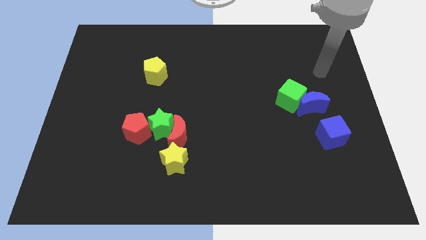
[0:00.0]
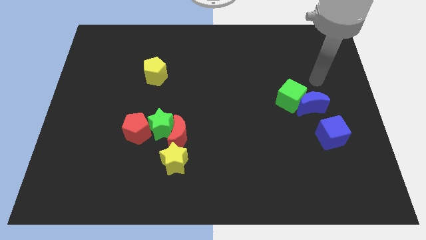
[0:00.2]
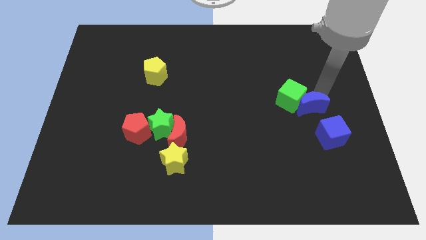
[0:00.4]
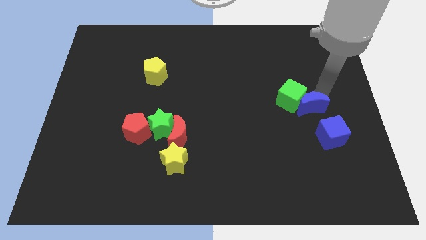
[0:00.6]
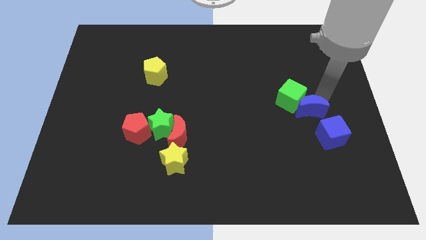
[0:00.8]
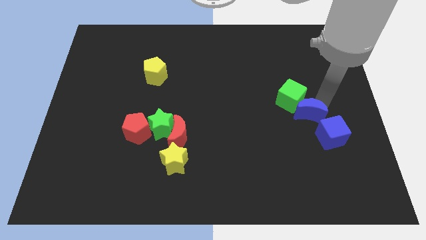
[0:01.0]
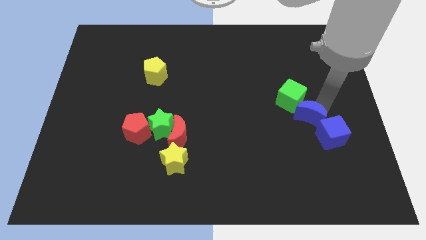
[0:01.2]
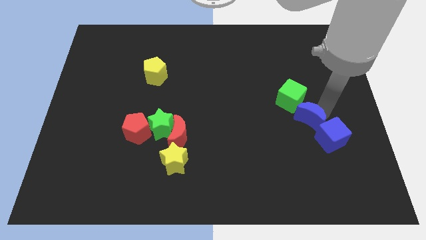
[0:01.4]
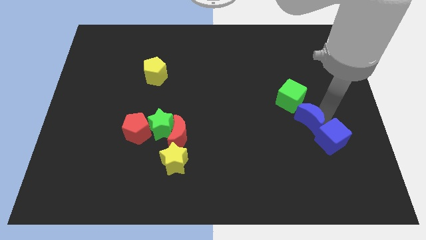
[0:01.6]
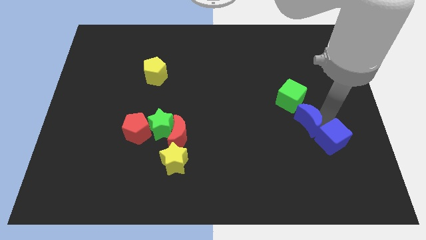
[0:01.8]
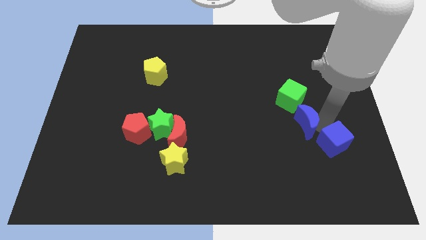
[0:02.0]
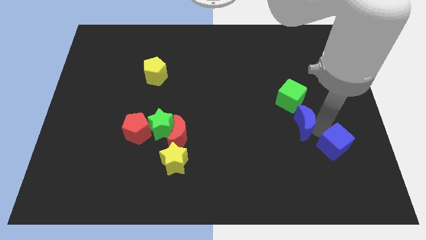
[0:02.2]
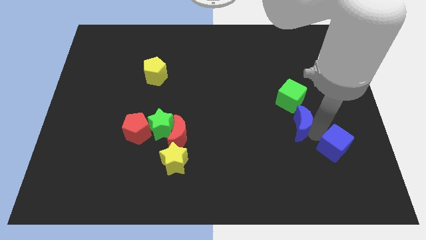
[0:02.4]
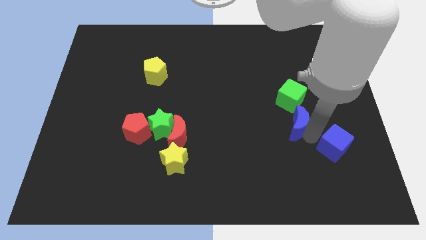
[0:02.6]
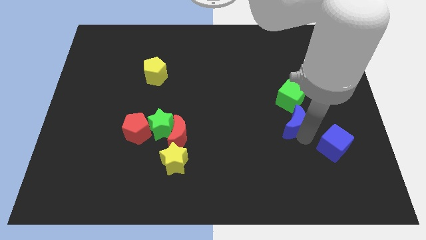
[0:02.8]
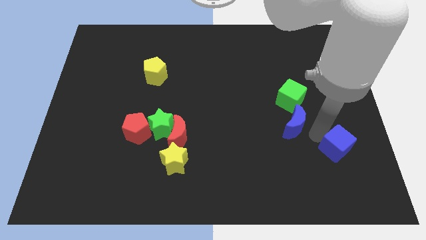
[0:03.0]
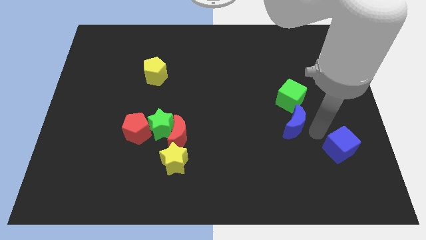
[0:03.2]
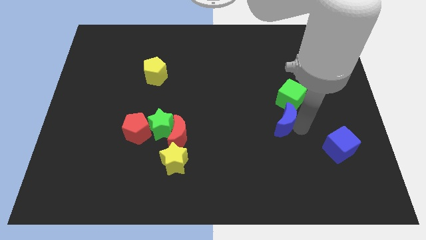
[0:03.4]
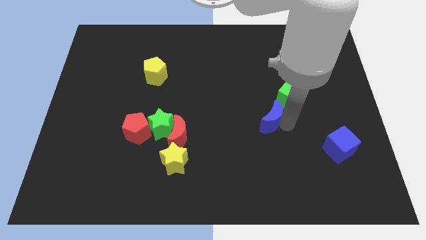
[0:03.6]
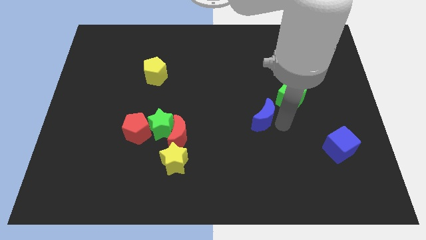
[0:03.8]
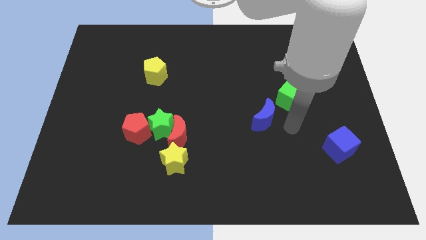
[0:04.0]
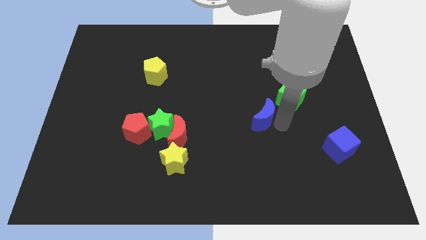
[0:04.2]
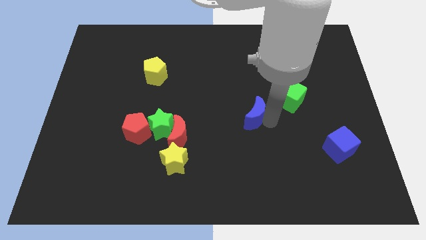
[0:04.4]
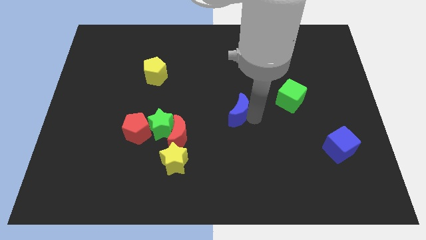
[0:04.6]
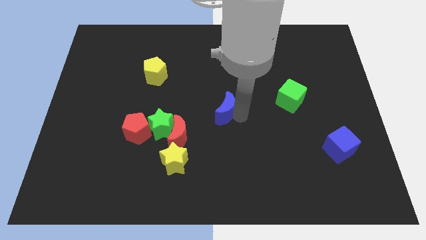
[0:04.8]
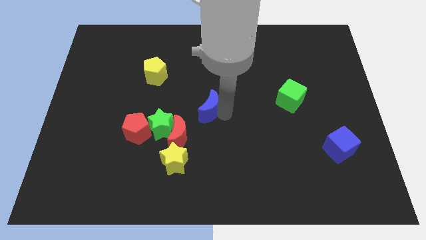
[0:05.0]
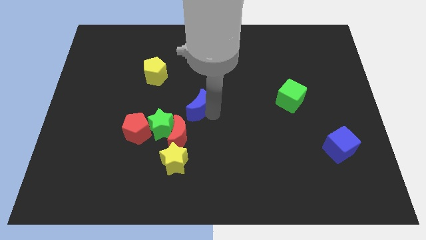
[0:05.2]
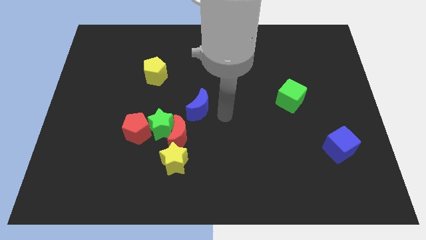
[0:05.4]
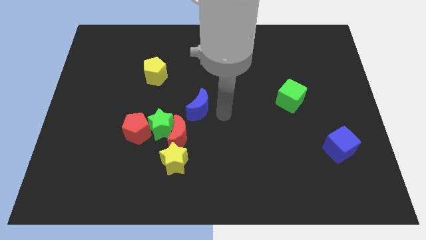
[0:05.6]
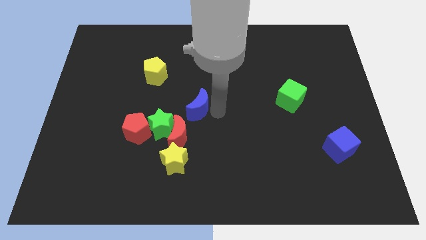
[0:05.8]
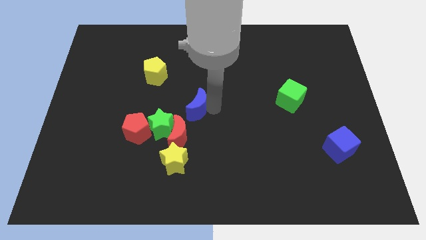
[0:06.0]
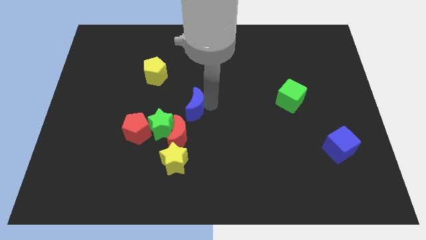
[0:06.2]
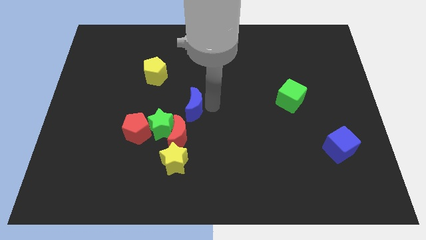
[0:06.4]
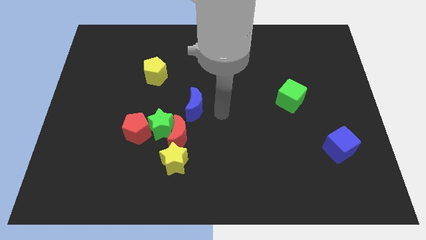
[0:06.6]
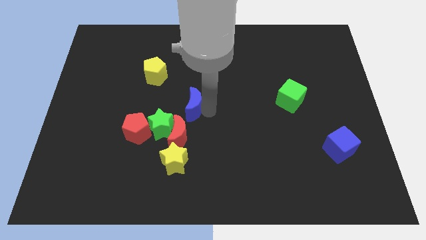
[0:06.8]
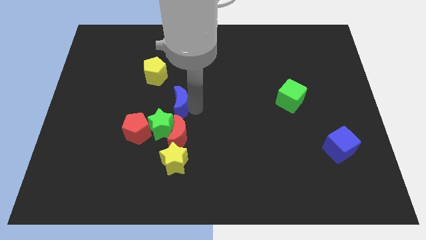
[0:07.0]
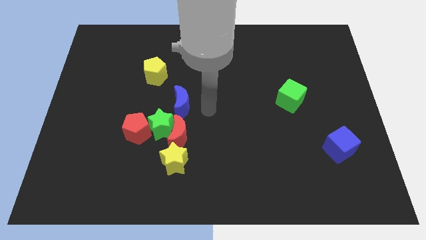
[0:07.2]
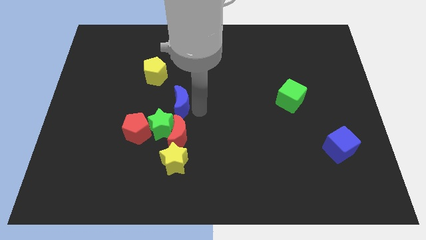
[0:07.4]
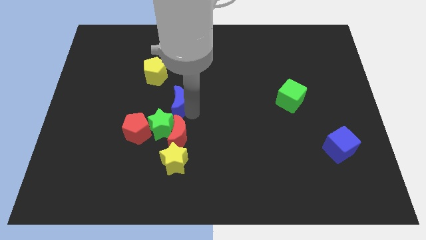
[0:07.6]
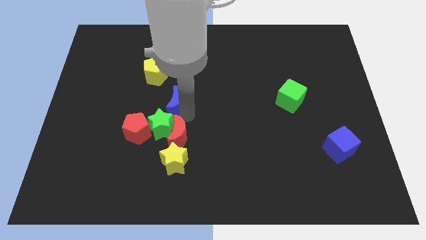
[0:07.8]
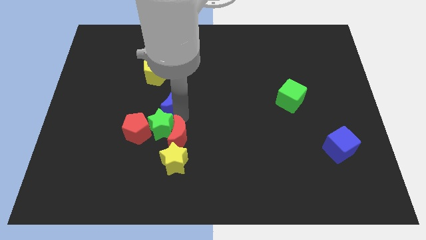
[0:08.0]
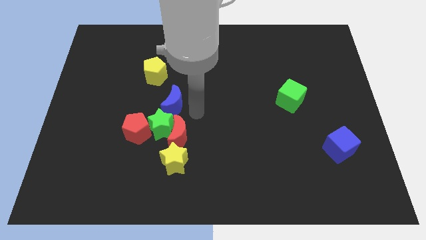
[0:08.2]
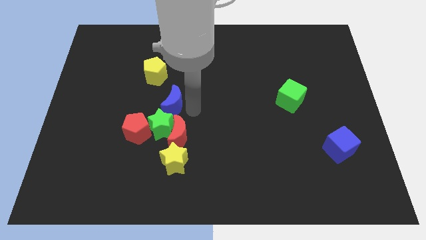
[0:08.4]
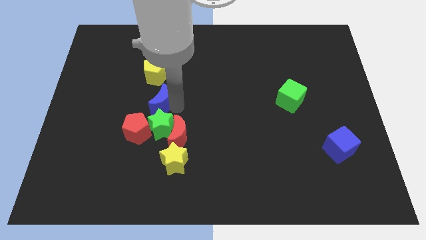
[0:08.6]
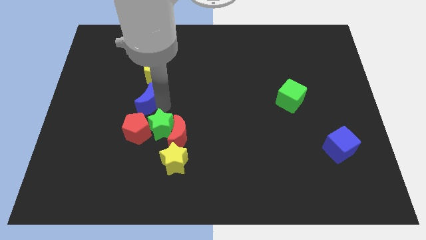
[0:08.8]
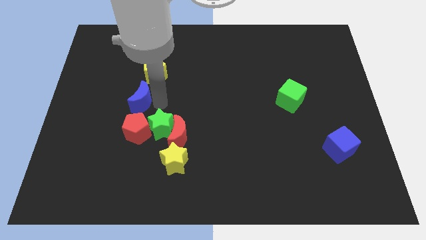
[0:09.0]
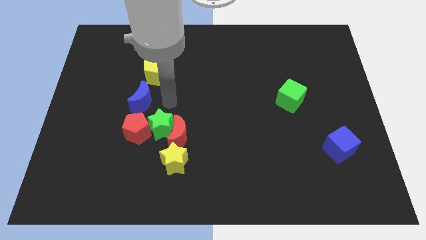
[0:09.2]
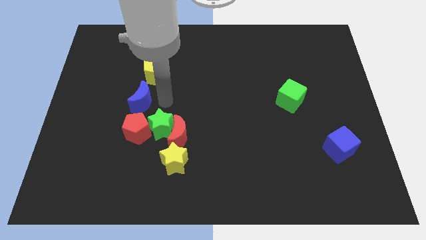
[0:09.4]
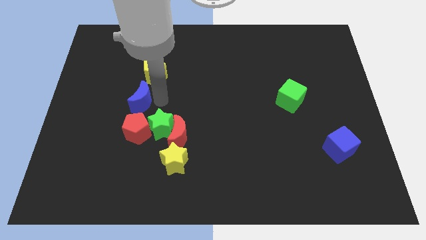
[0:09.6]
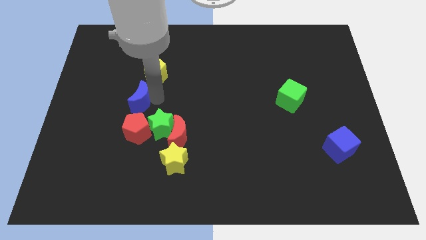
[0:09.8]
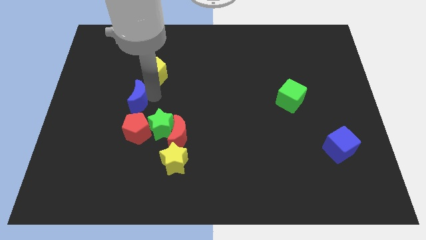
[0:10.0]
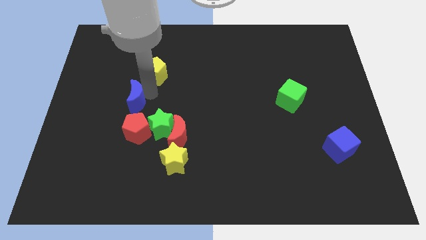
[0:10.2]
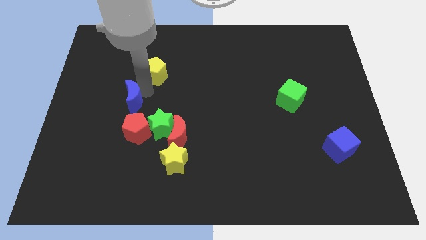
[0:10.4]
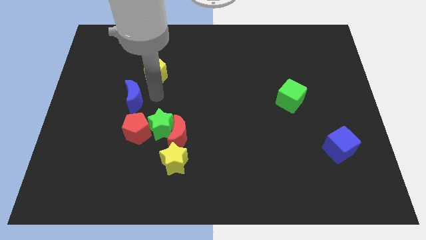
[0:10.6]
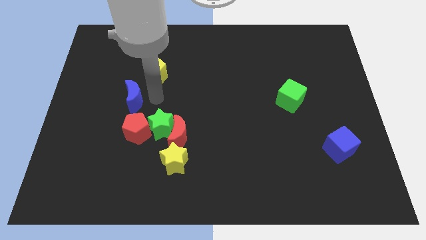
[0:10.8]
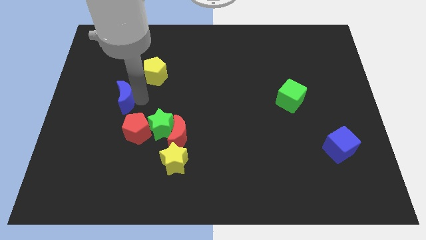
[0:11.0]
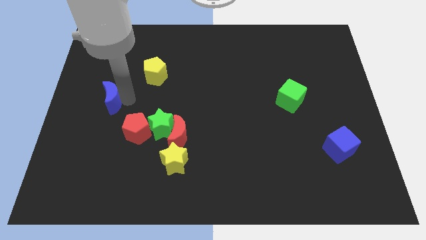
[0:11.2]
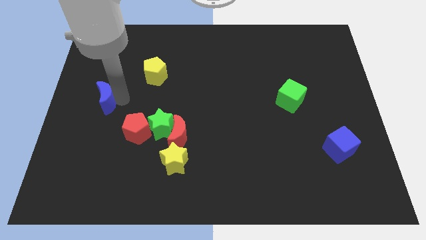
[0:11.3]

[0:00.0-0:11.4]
slide the blue moon to the left side of the board

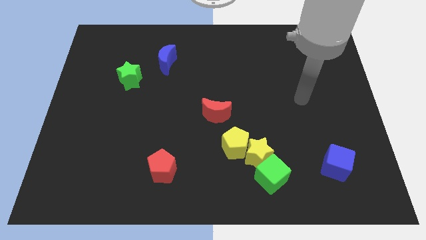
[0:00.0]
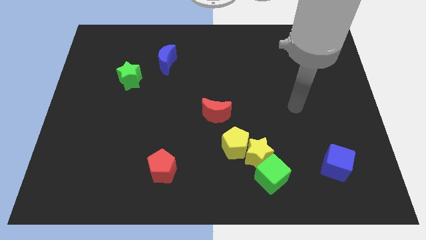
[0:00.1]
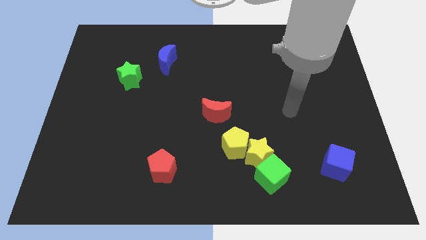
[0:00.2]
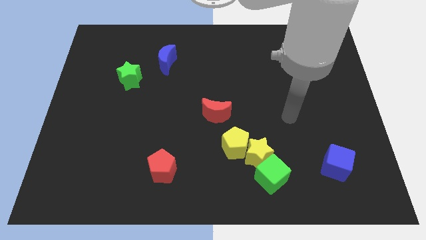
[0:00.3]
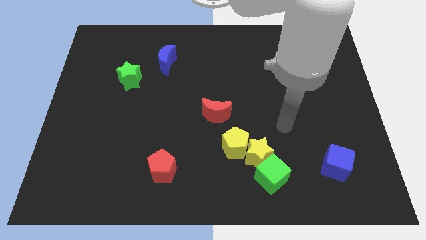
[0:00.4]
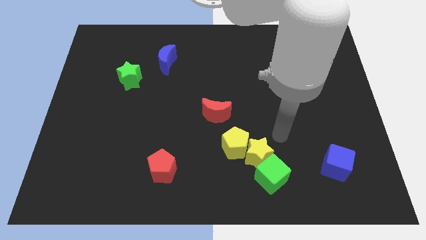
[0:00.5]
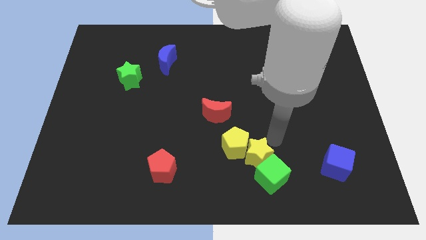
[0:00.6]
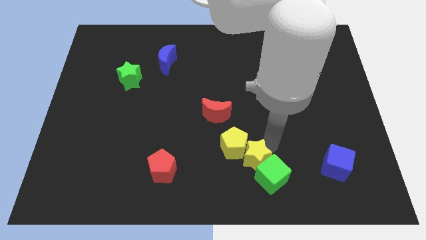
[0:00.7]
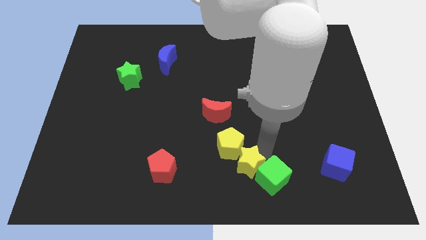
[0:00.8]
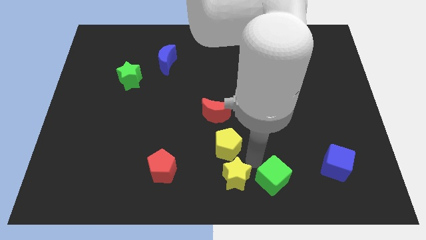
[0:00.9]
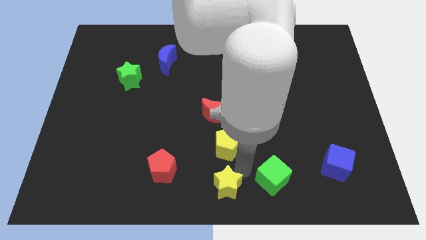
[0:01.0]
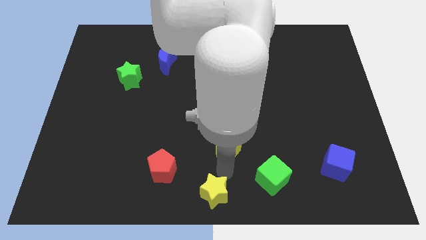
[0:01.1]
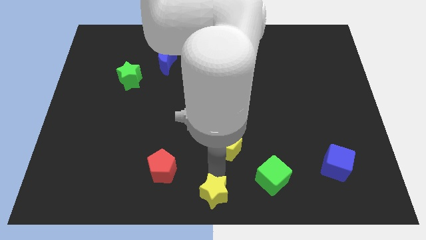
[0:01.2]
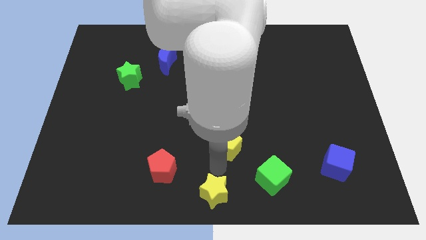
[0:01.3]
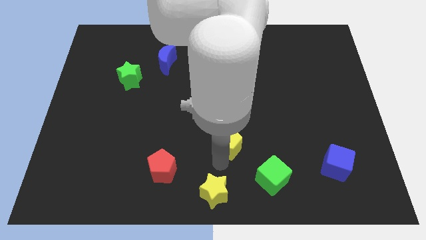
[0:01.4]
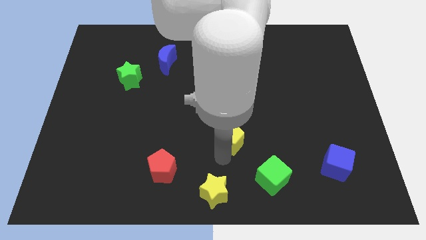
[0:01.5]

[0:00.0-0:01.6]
push the yellow pentagon to the center of the board
